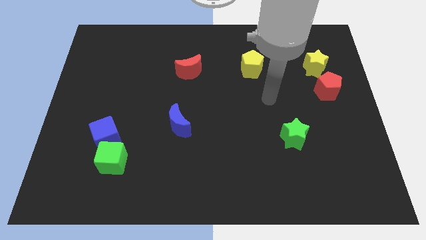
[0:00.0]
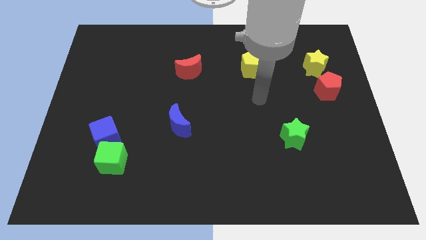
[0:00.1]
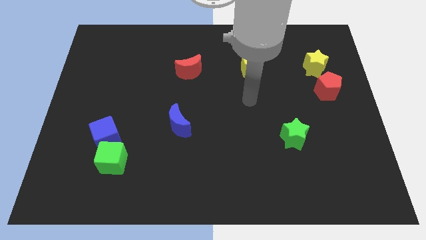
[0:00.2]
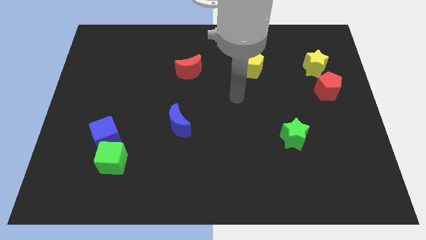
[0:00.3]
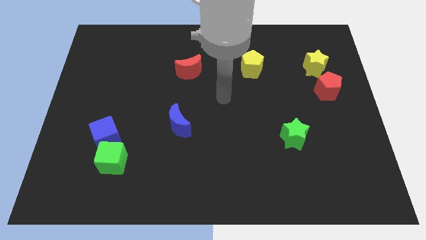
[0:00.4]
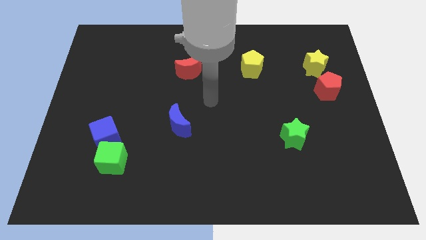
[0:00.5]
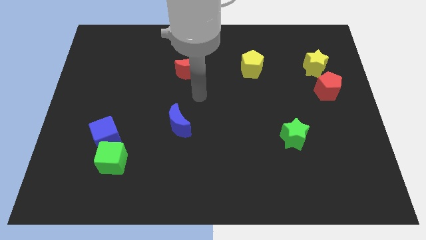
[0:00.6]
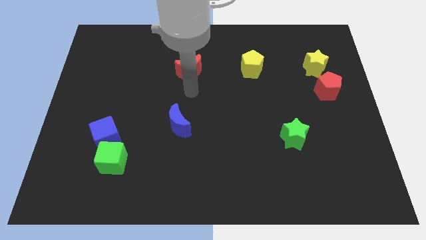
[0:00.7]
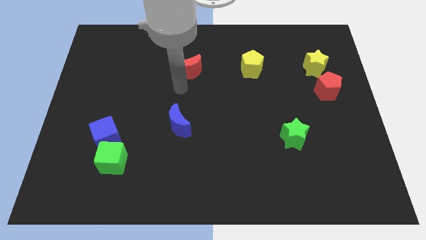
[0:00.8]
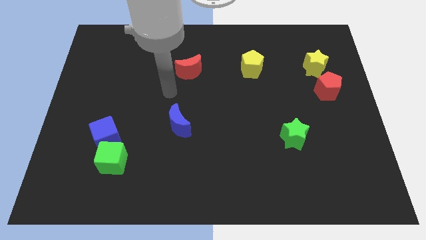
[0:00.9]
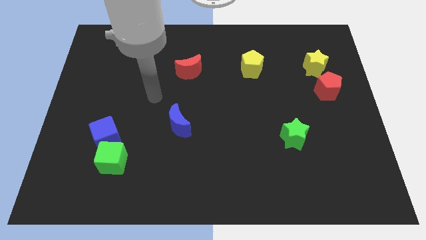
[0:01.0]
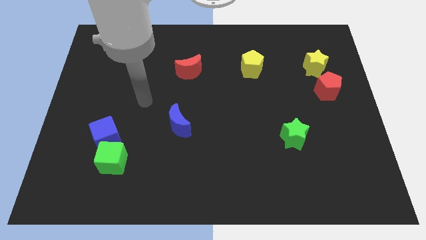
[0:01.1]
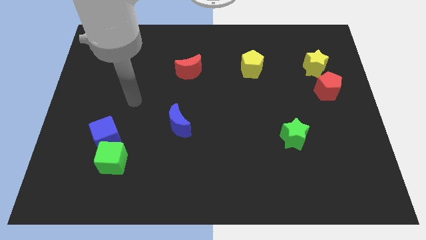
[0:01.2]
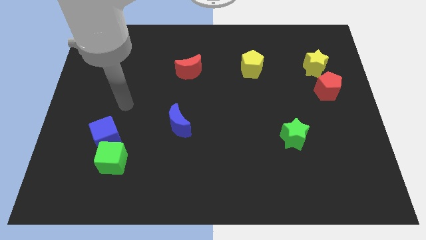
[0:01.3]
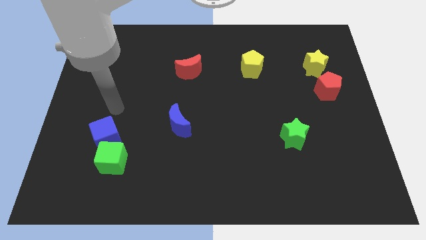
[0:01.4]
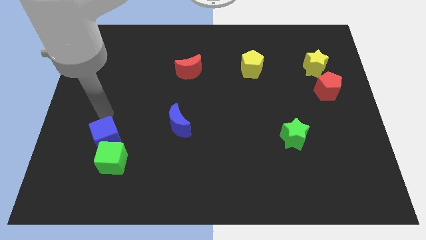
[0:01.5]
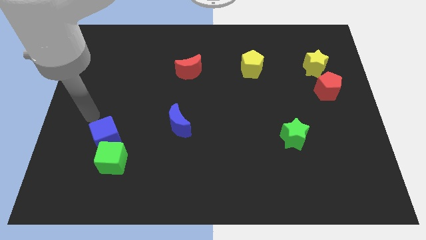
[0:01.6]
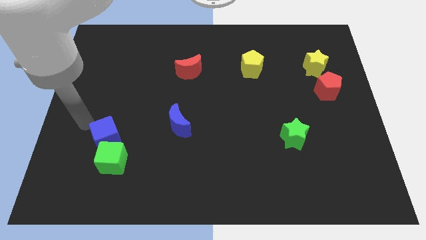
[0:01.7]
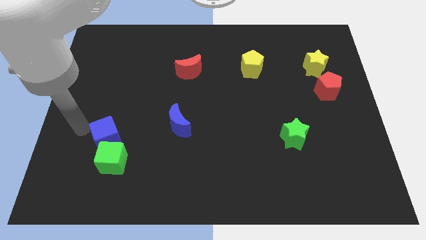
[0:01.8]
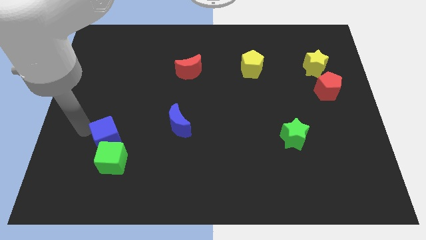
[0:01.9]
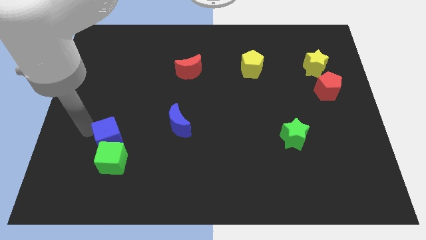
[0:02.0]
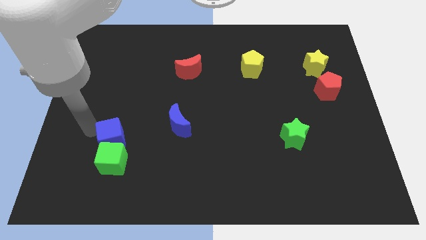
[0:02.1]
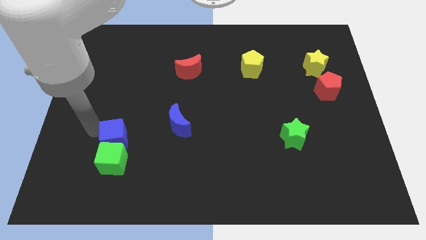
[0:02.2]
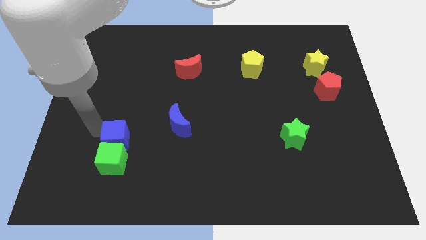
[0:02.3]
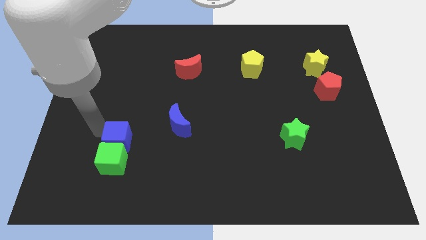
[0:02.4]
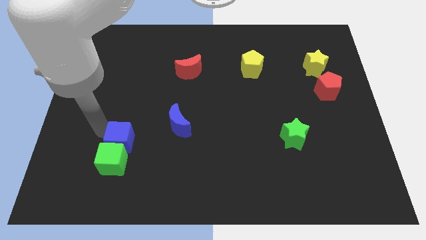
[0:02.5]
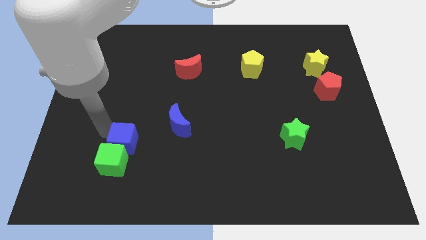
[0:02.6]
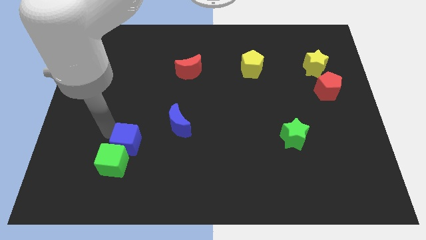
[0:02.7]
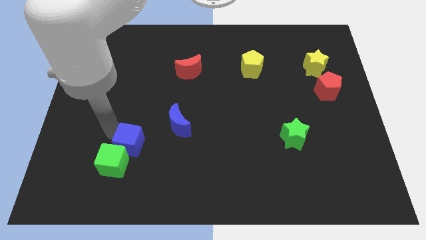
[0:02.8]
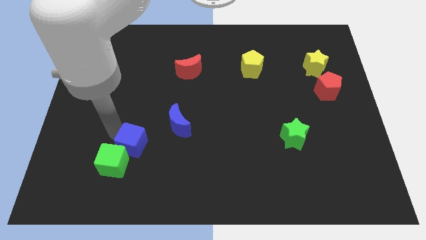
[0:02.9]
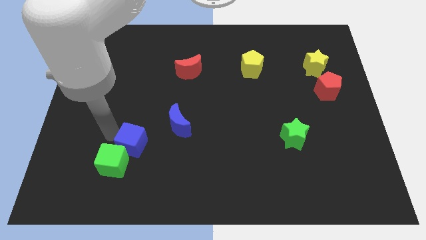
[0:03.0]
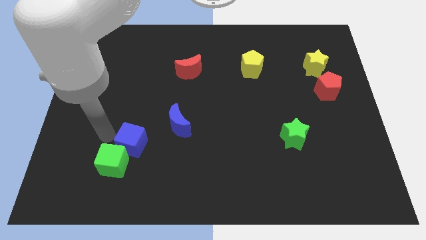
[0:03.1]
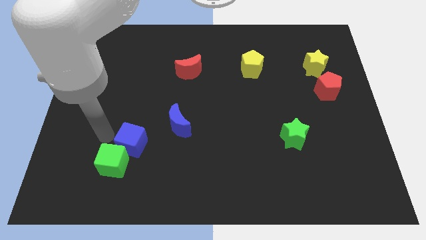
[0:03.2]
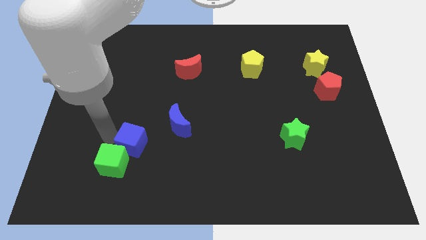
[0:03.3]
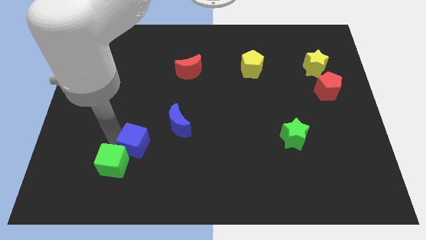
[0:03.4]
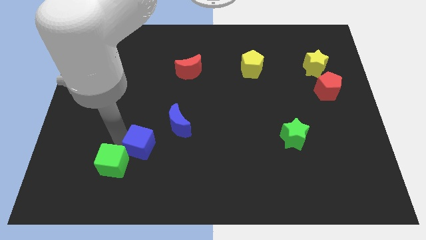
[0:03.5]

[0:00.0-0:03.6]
slightly push the blue cube right

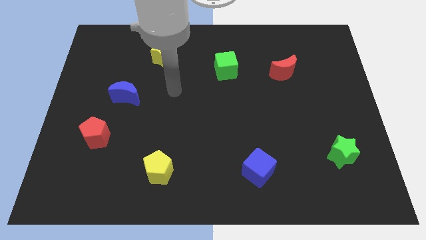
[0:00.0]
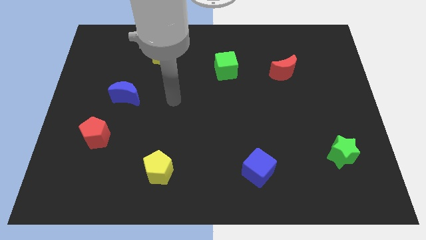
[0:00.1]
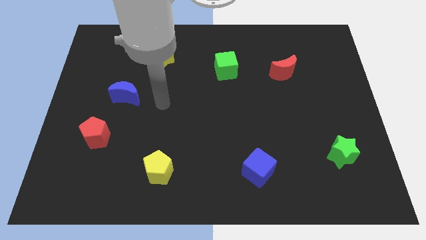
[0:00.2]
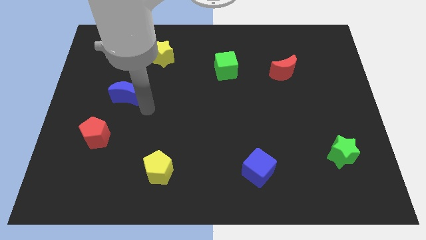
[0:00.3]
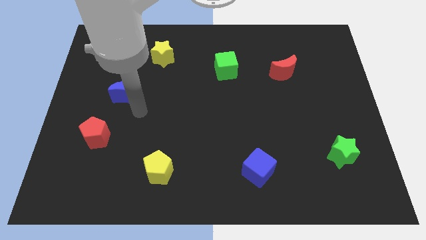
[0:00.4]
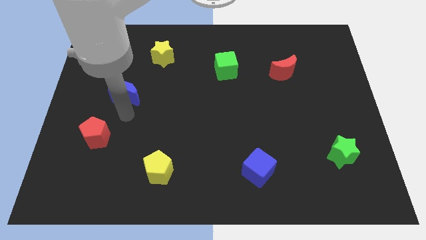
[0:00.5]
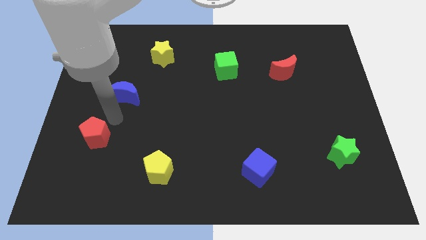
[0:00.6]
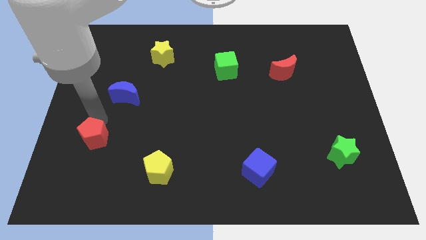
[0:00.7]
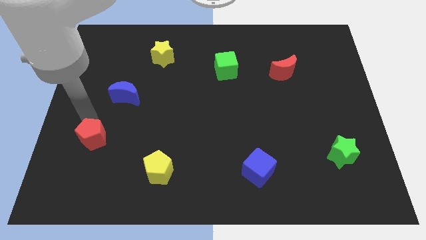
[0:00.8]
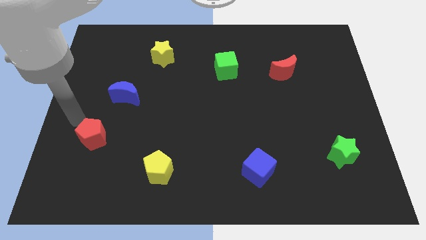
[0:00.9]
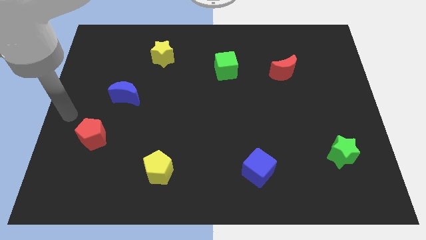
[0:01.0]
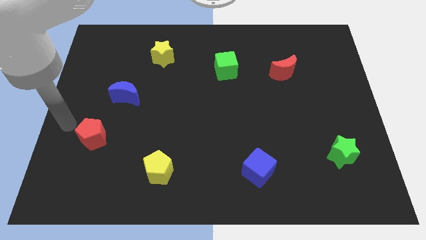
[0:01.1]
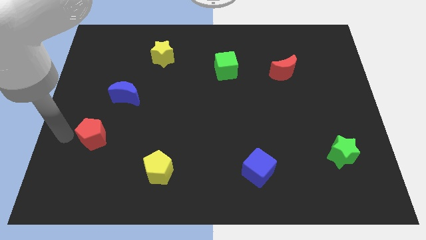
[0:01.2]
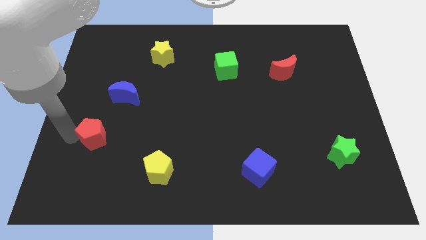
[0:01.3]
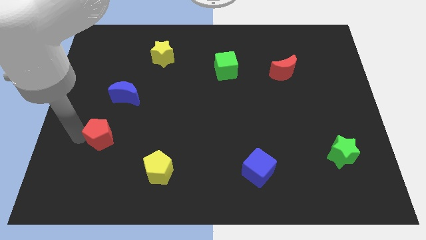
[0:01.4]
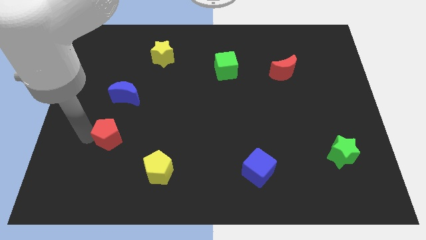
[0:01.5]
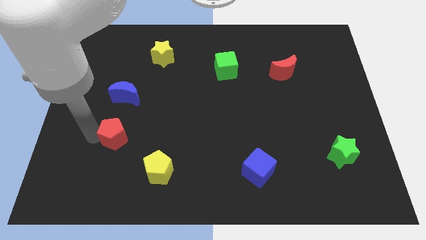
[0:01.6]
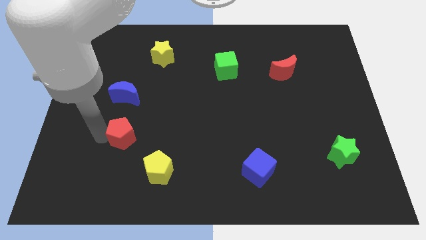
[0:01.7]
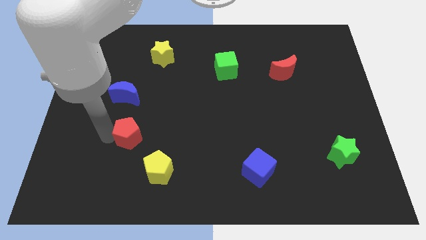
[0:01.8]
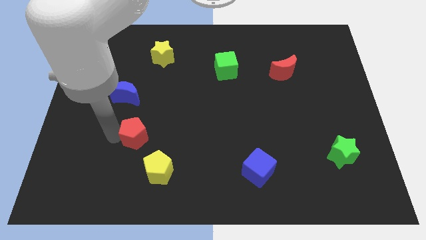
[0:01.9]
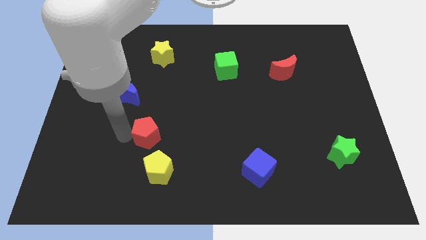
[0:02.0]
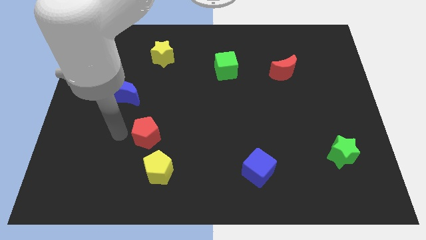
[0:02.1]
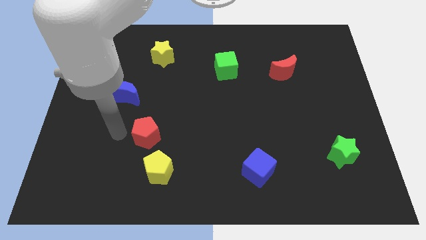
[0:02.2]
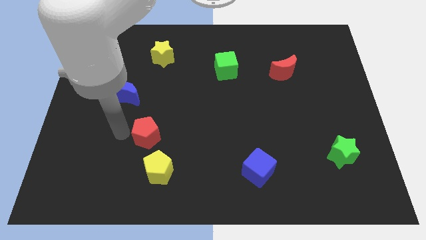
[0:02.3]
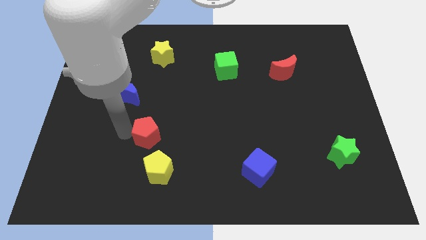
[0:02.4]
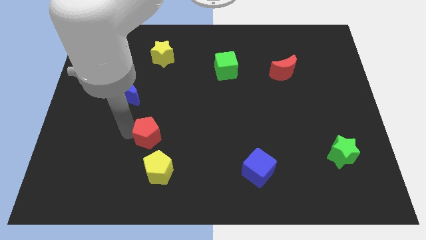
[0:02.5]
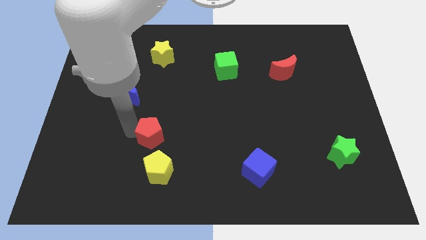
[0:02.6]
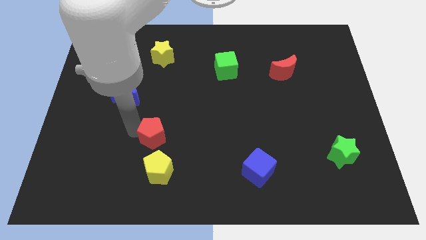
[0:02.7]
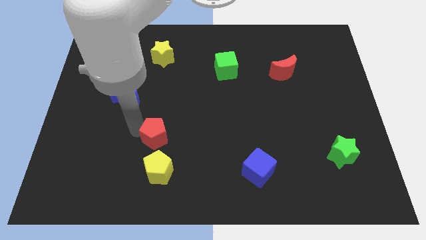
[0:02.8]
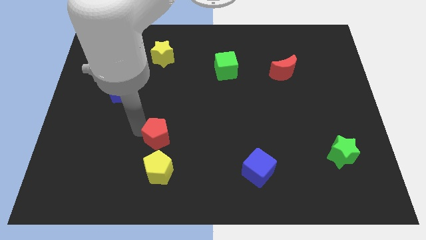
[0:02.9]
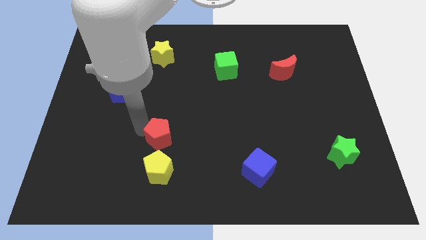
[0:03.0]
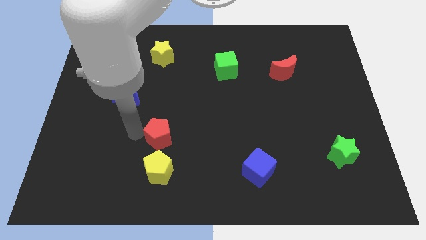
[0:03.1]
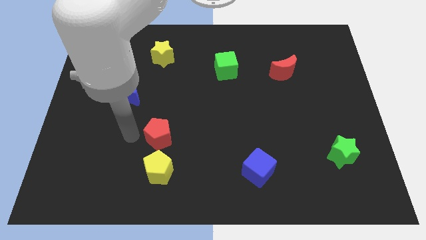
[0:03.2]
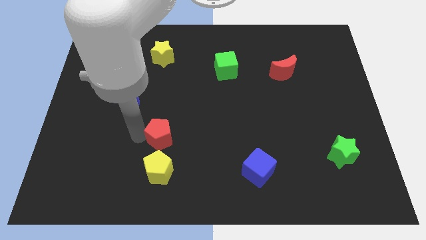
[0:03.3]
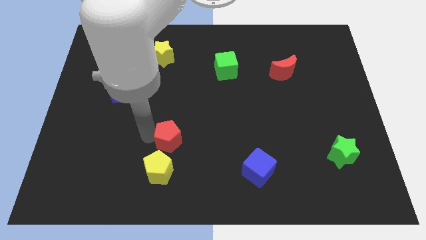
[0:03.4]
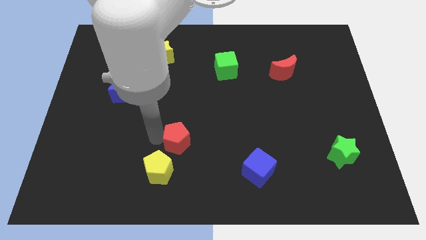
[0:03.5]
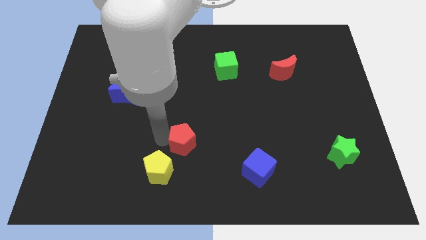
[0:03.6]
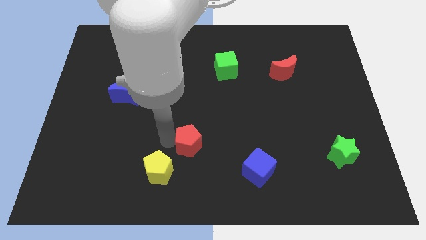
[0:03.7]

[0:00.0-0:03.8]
slide the red pentagon to the right

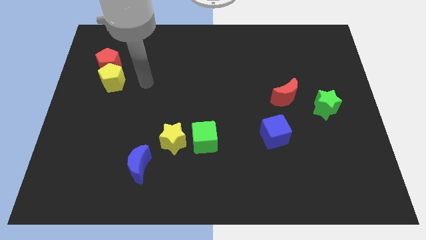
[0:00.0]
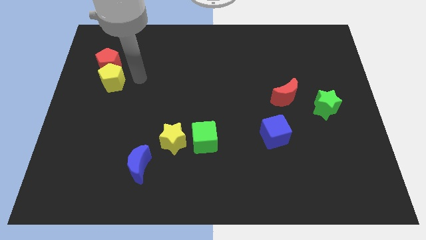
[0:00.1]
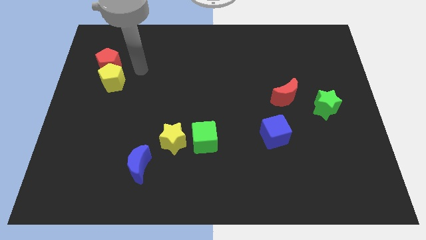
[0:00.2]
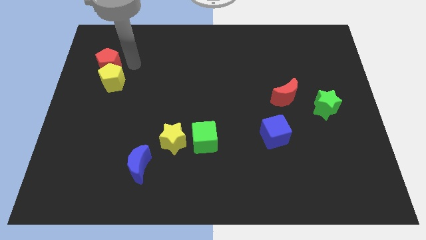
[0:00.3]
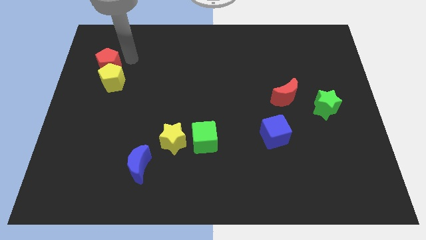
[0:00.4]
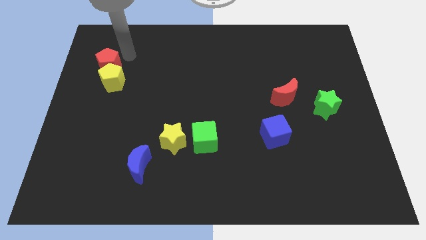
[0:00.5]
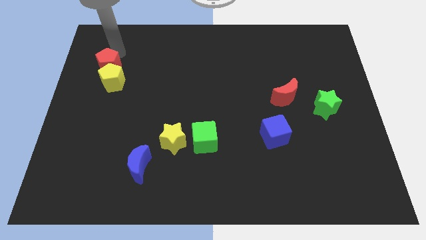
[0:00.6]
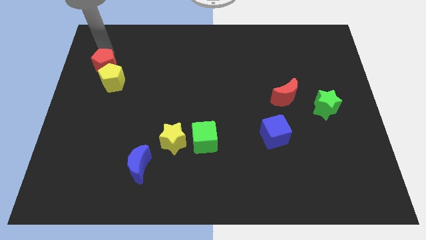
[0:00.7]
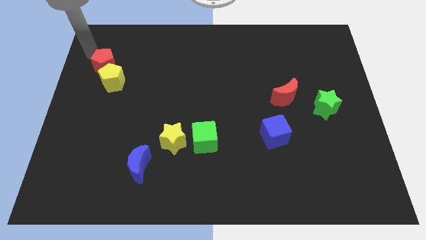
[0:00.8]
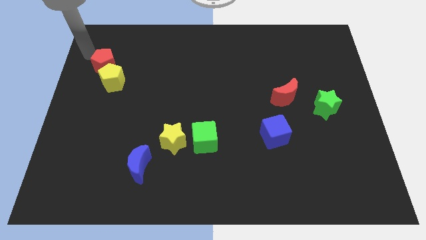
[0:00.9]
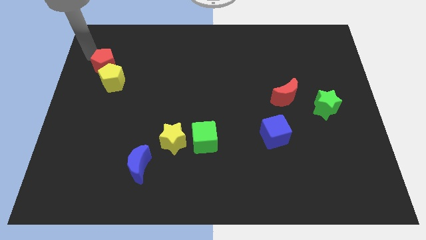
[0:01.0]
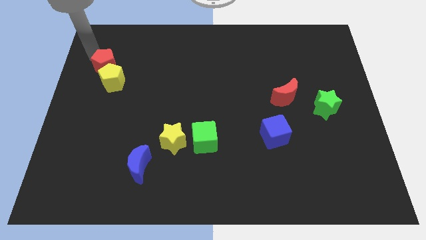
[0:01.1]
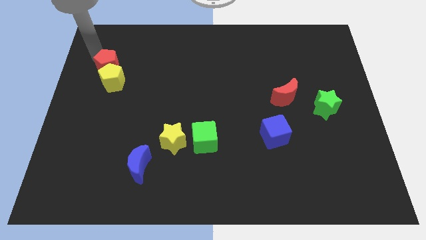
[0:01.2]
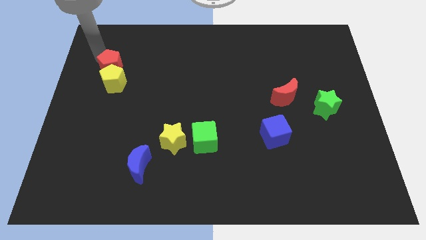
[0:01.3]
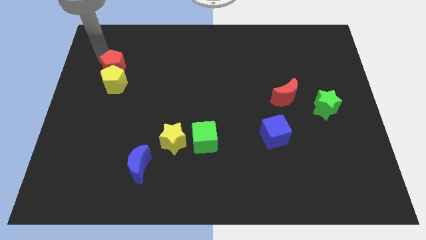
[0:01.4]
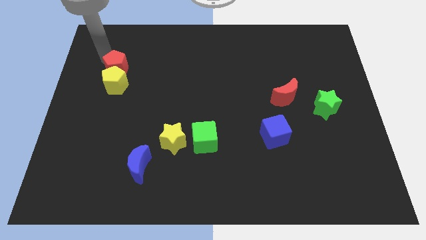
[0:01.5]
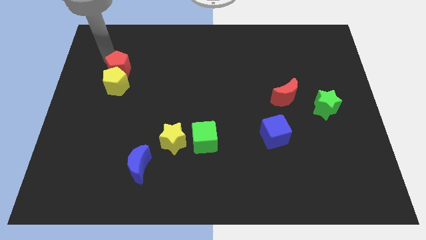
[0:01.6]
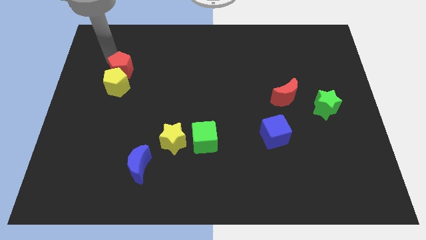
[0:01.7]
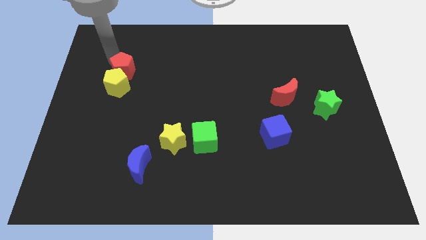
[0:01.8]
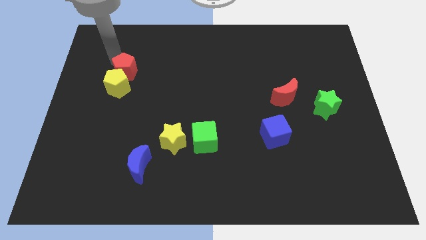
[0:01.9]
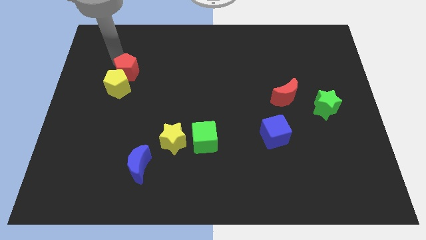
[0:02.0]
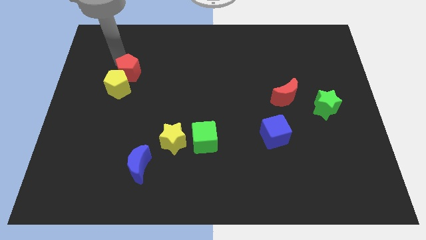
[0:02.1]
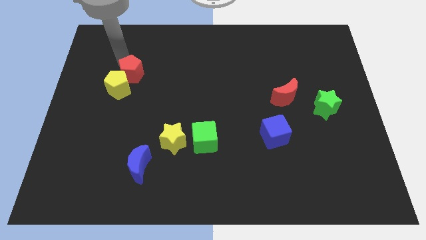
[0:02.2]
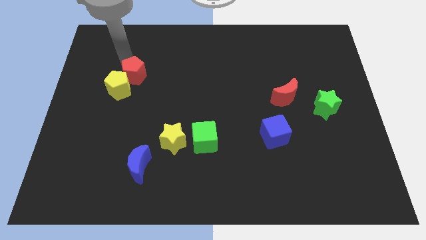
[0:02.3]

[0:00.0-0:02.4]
slightly move the red pentagon downwards and to the right
